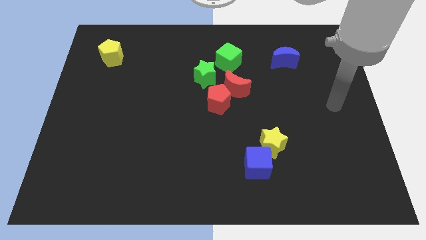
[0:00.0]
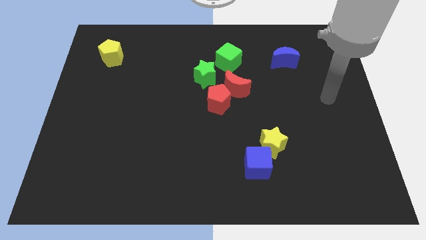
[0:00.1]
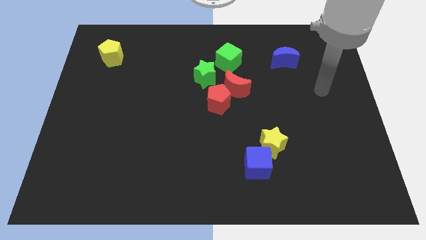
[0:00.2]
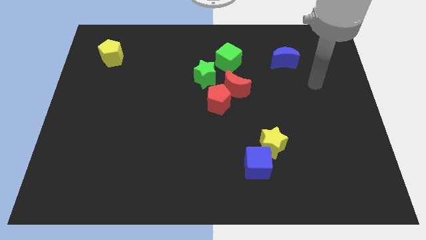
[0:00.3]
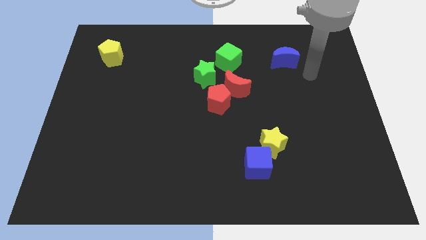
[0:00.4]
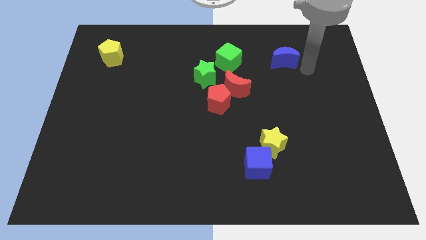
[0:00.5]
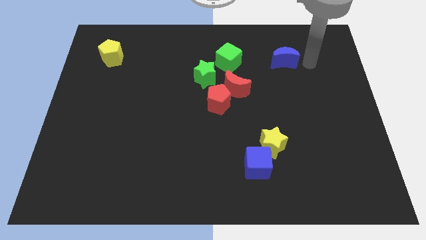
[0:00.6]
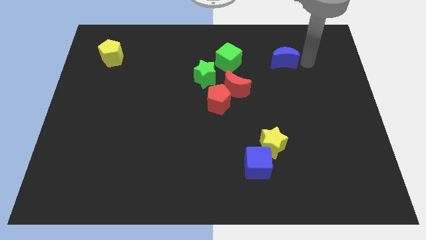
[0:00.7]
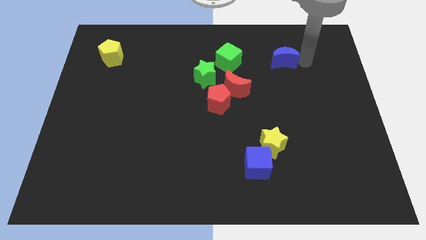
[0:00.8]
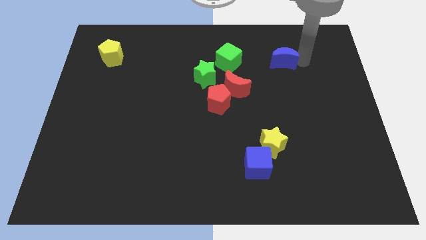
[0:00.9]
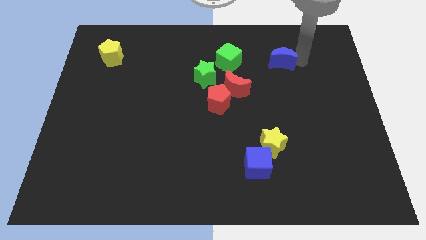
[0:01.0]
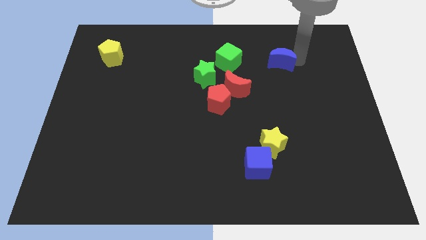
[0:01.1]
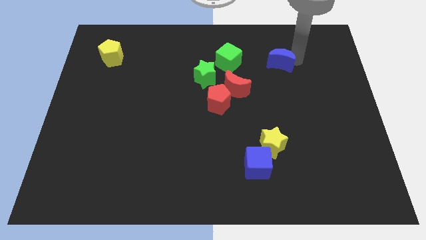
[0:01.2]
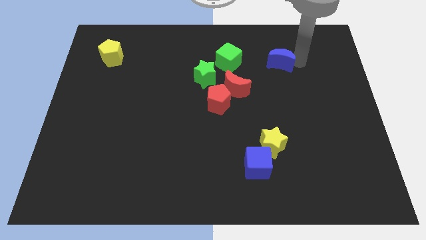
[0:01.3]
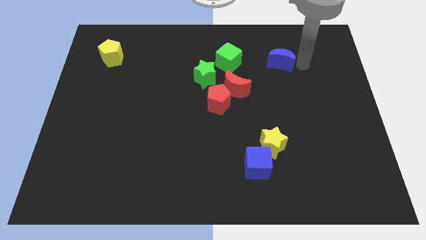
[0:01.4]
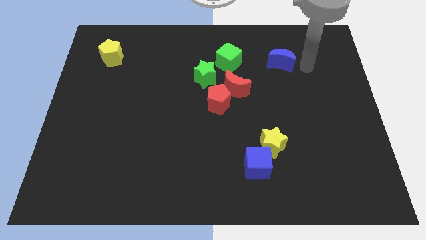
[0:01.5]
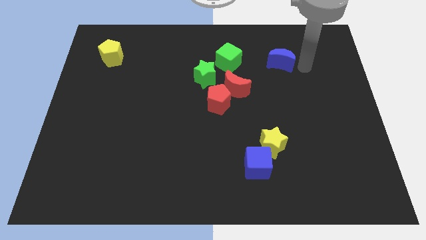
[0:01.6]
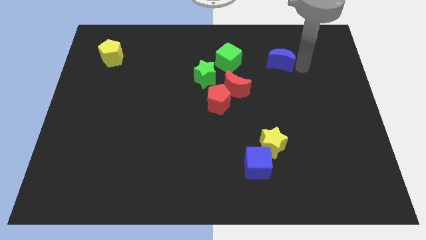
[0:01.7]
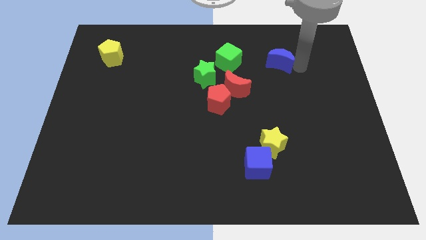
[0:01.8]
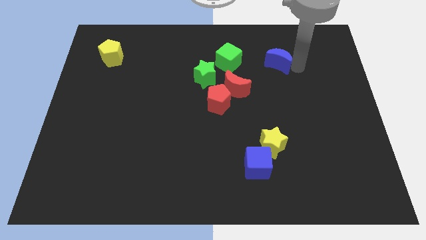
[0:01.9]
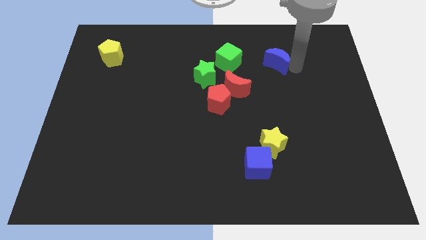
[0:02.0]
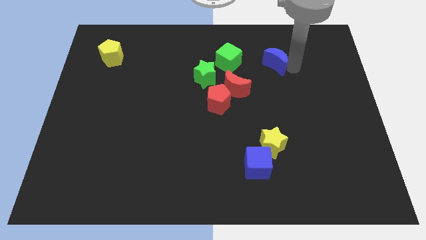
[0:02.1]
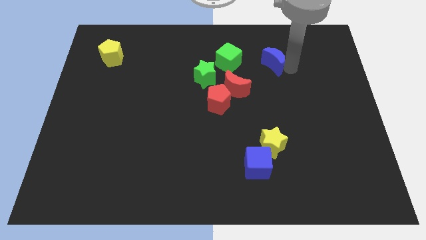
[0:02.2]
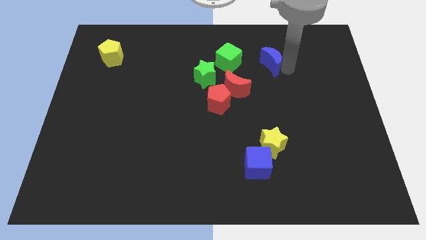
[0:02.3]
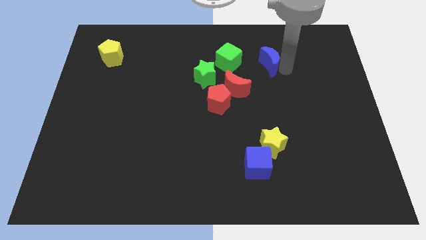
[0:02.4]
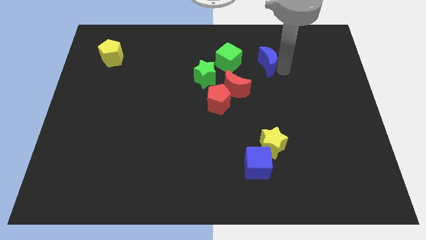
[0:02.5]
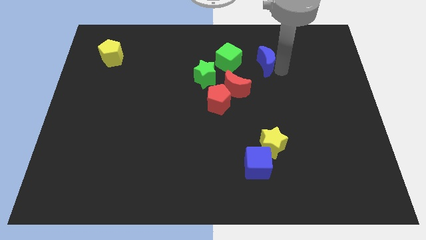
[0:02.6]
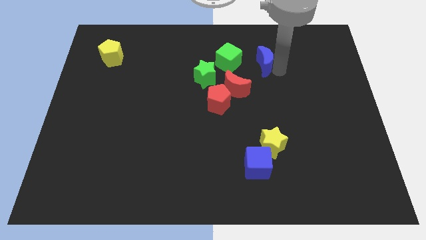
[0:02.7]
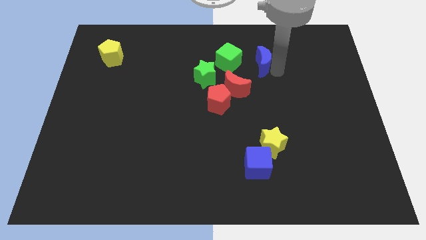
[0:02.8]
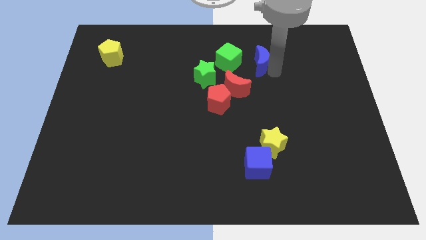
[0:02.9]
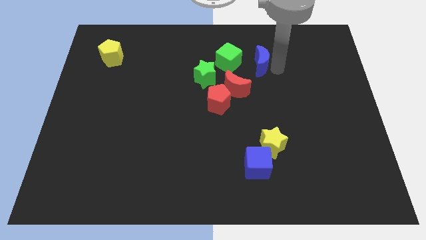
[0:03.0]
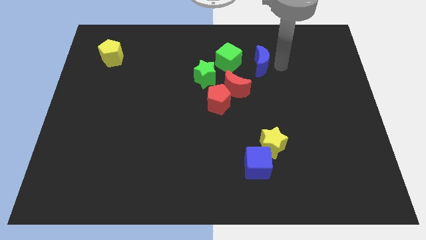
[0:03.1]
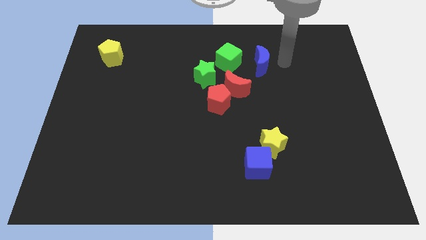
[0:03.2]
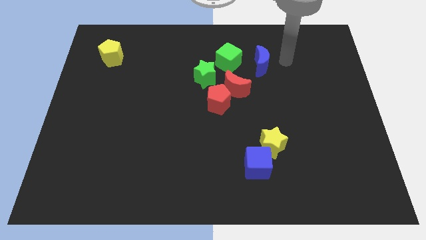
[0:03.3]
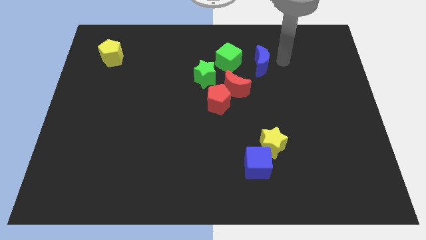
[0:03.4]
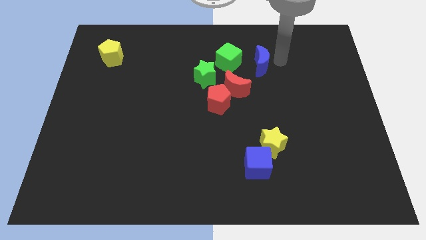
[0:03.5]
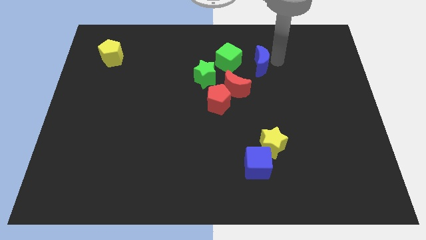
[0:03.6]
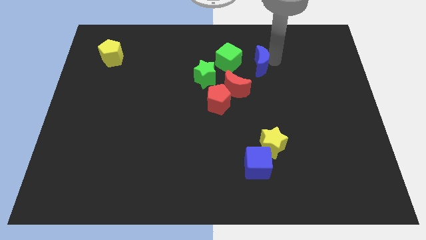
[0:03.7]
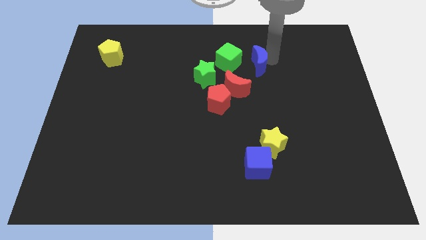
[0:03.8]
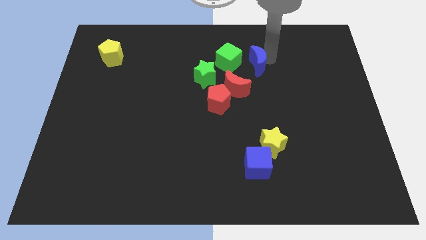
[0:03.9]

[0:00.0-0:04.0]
slightly move the blue moon to the left

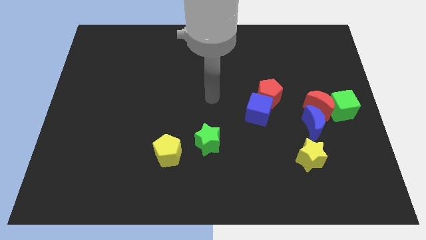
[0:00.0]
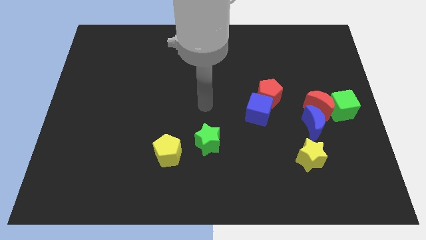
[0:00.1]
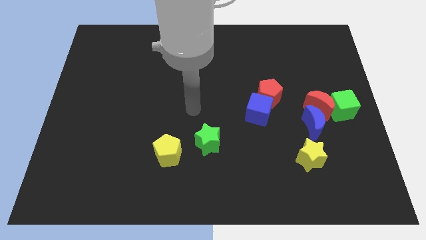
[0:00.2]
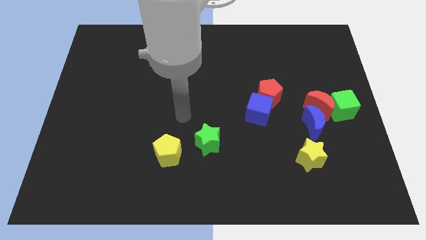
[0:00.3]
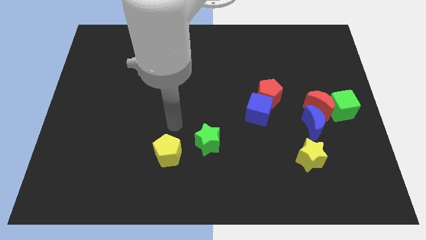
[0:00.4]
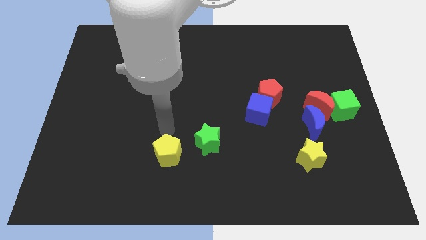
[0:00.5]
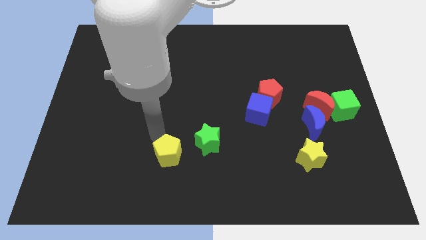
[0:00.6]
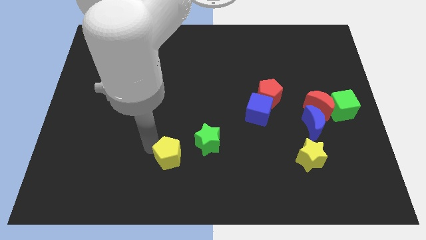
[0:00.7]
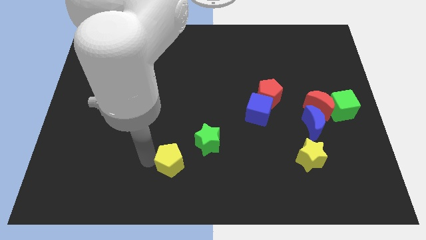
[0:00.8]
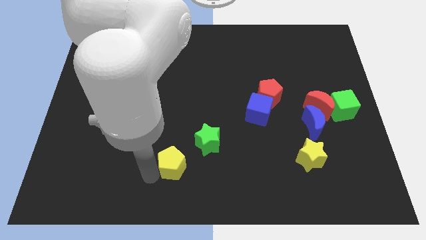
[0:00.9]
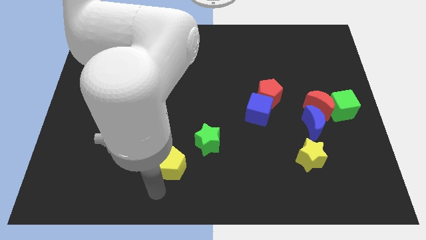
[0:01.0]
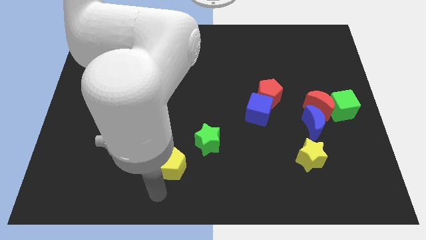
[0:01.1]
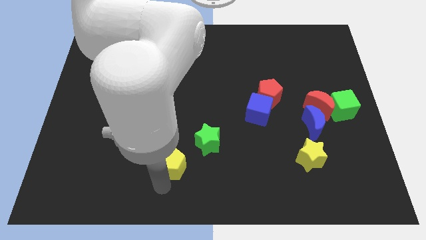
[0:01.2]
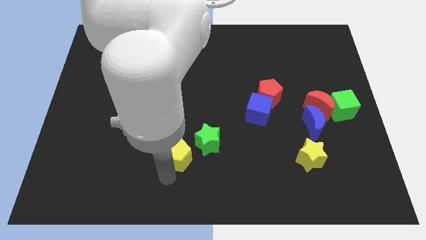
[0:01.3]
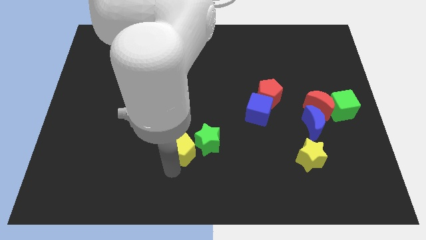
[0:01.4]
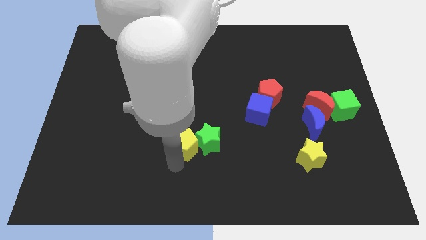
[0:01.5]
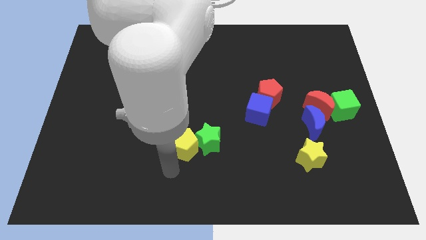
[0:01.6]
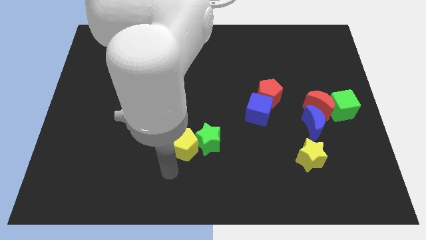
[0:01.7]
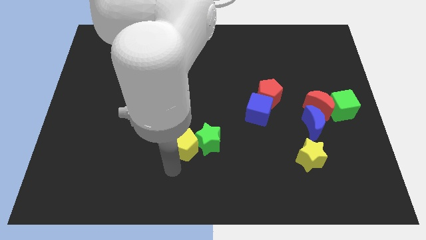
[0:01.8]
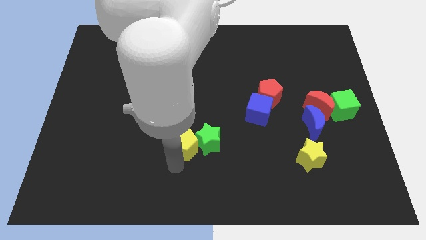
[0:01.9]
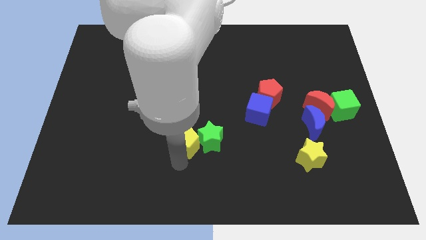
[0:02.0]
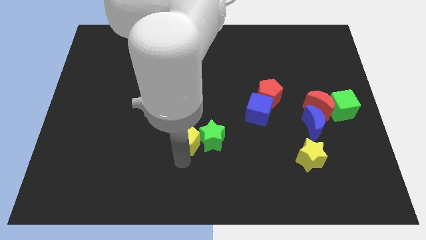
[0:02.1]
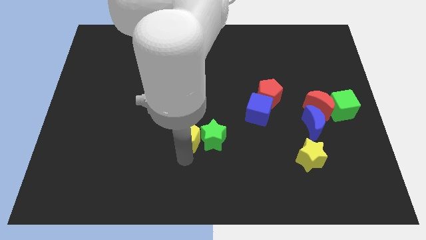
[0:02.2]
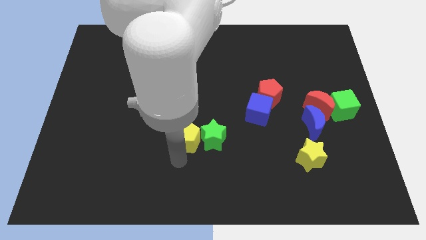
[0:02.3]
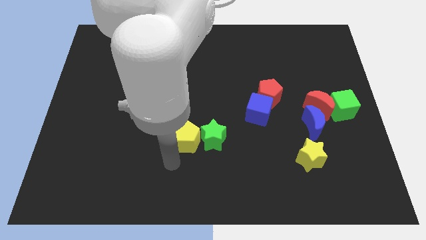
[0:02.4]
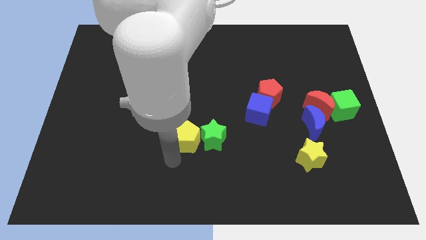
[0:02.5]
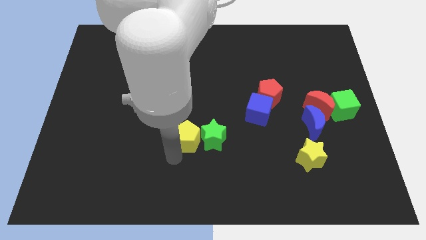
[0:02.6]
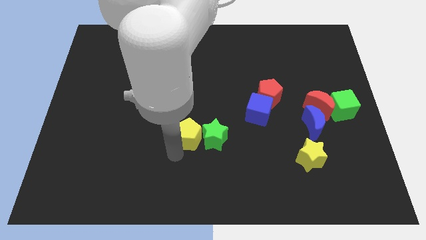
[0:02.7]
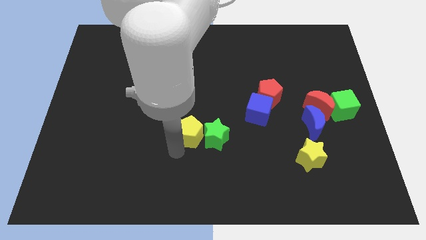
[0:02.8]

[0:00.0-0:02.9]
slightly push the yellow pentagon up and to the right diagonally

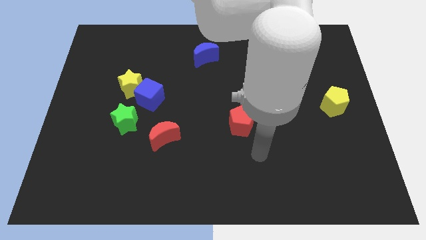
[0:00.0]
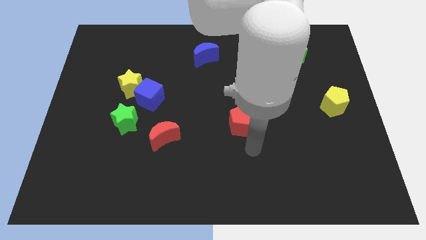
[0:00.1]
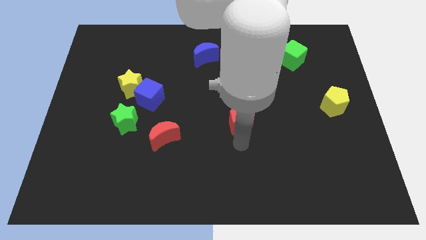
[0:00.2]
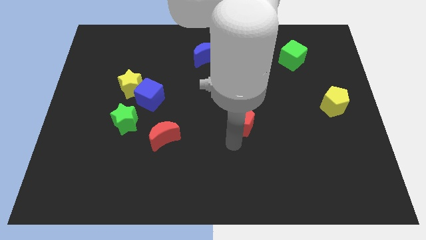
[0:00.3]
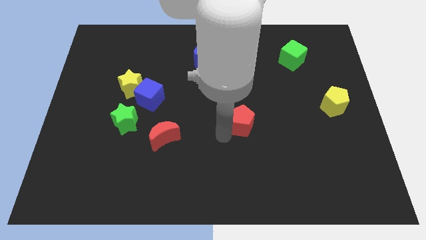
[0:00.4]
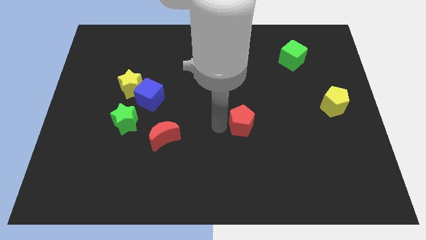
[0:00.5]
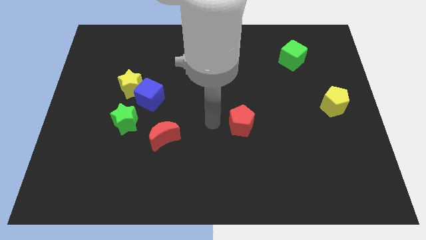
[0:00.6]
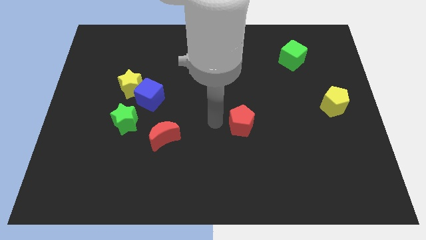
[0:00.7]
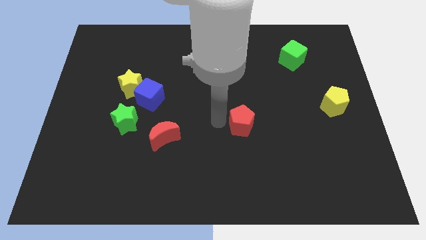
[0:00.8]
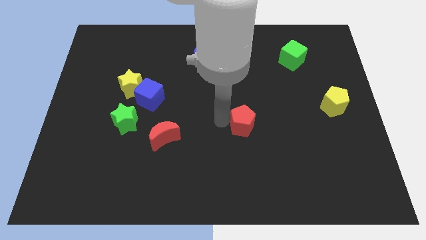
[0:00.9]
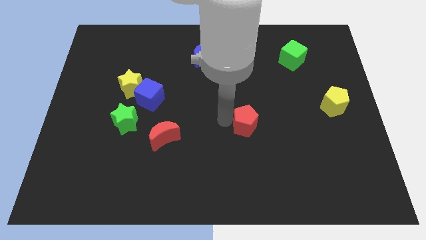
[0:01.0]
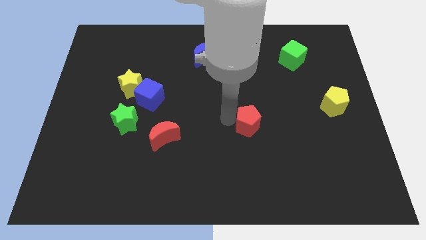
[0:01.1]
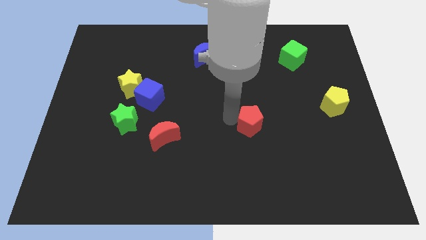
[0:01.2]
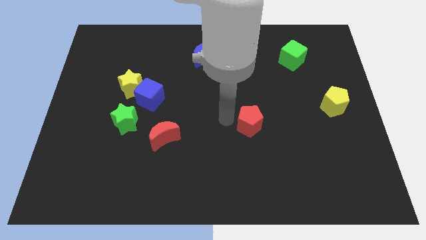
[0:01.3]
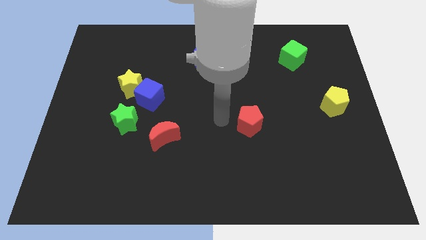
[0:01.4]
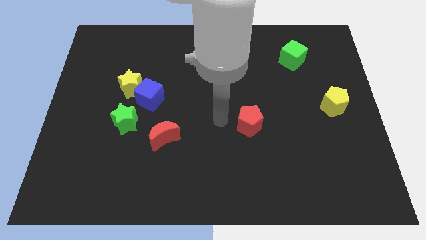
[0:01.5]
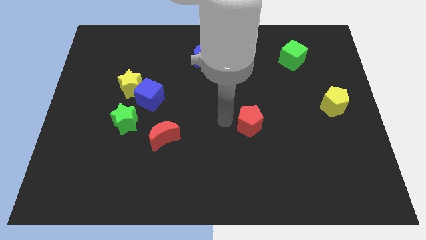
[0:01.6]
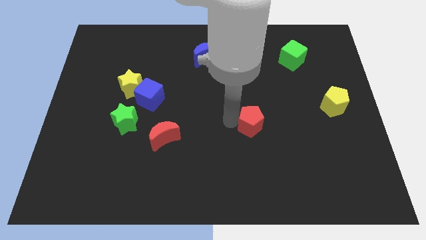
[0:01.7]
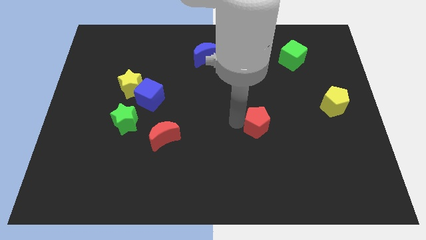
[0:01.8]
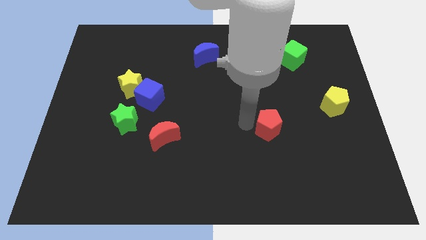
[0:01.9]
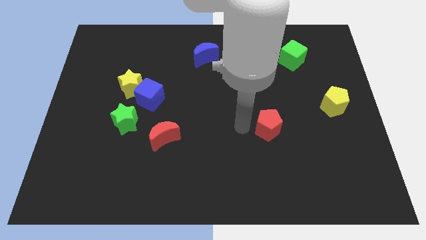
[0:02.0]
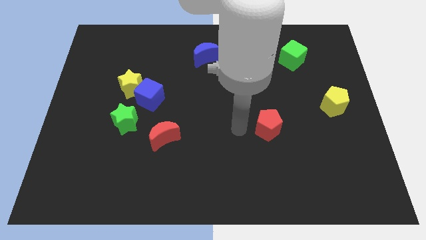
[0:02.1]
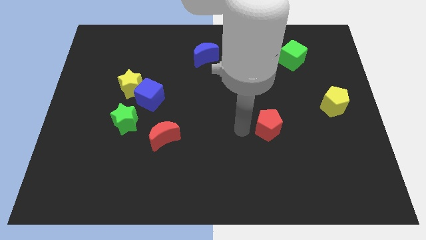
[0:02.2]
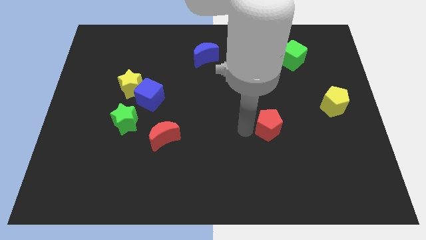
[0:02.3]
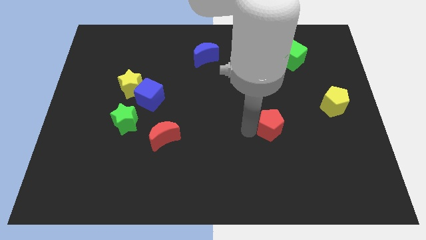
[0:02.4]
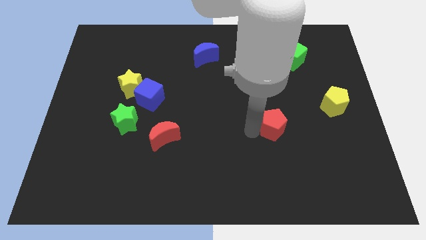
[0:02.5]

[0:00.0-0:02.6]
slightly move the red pentagon to the right
